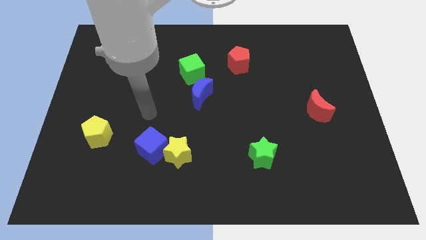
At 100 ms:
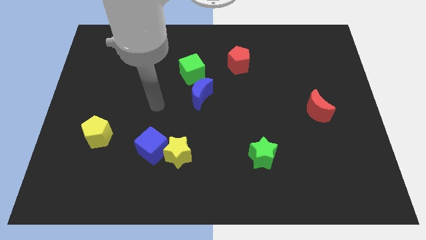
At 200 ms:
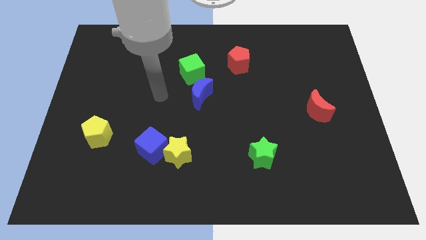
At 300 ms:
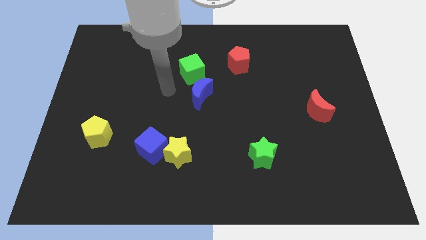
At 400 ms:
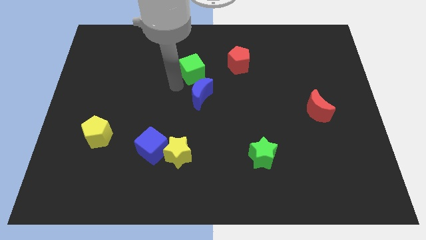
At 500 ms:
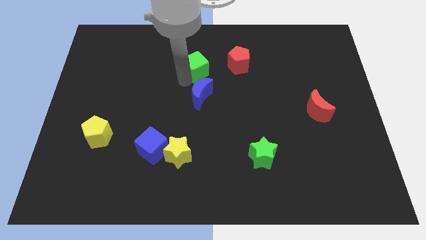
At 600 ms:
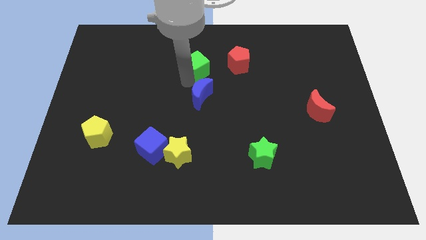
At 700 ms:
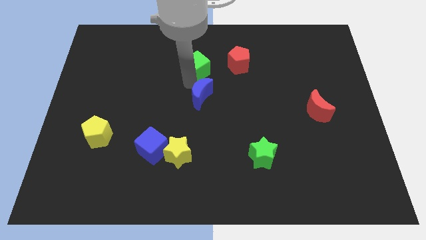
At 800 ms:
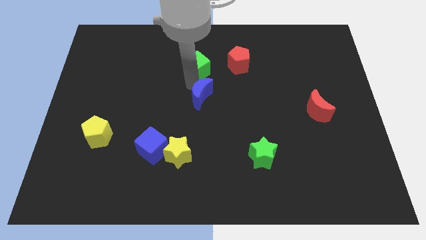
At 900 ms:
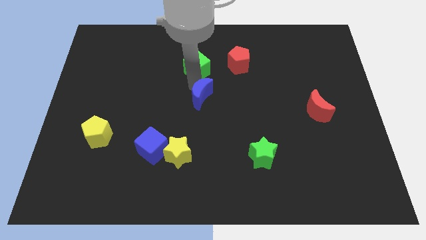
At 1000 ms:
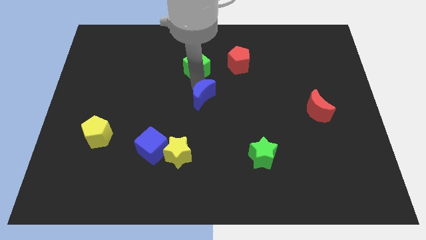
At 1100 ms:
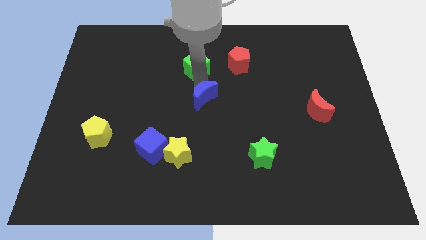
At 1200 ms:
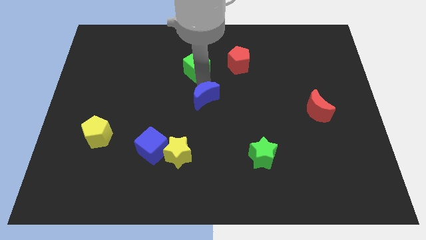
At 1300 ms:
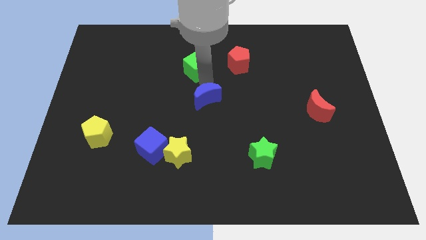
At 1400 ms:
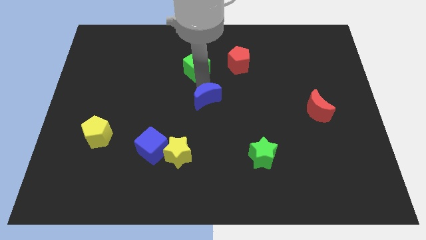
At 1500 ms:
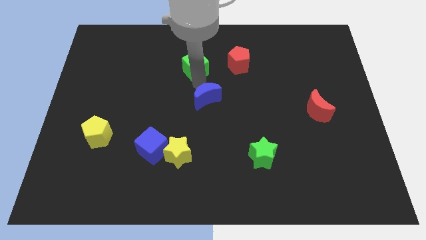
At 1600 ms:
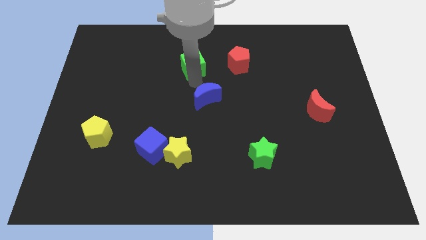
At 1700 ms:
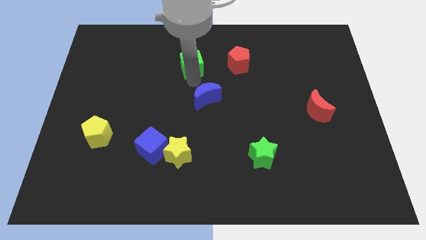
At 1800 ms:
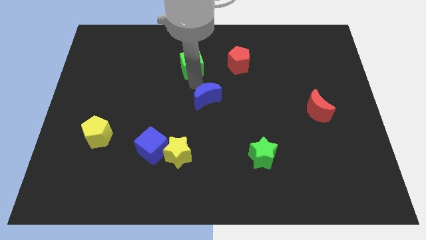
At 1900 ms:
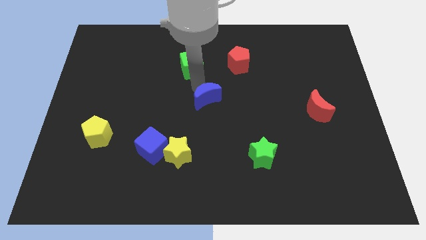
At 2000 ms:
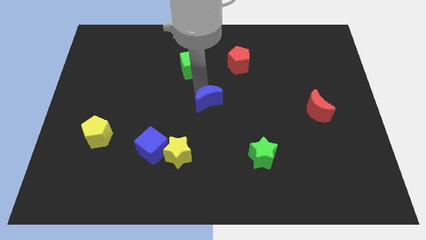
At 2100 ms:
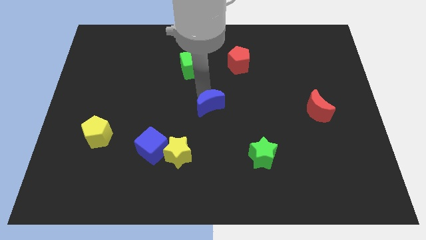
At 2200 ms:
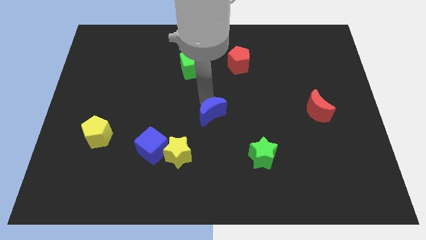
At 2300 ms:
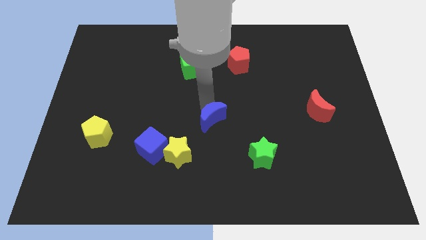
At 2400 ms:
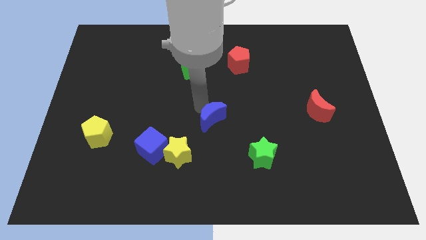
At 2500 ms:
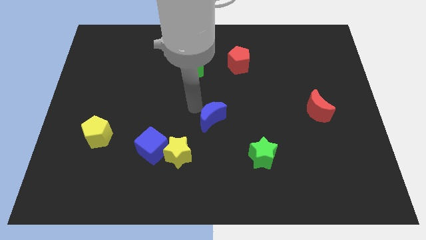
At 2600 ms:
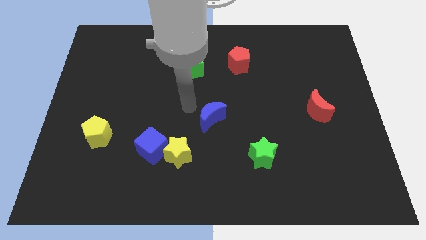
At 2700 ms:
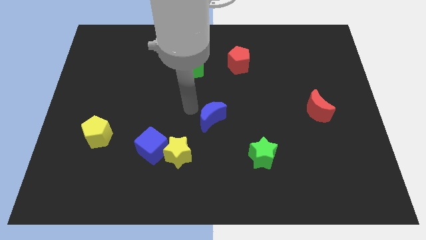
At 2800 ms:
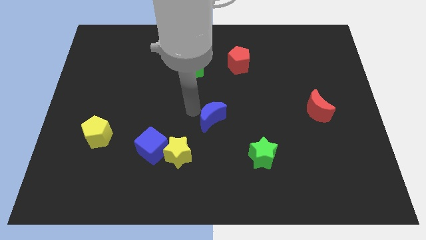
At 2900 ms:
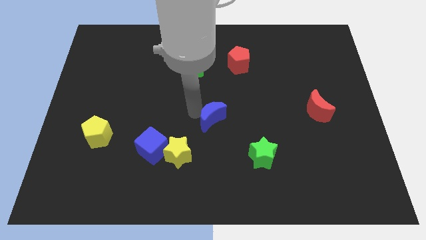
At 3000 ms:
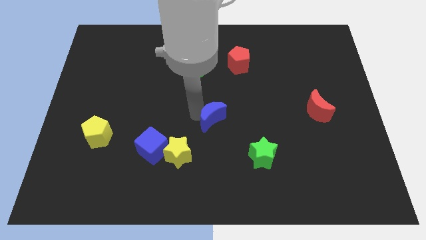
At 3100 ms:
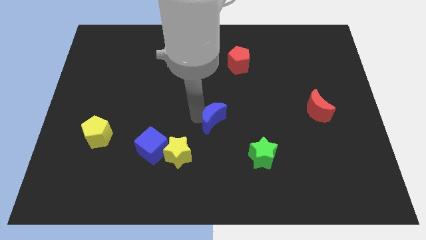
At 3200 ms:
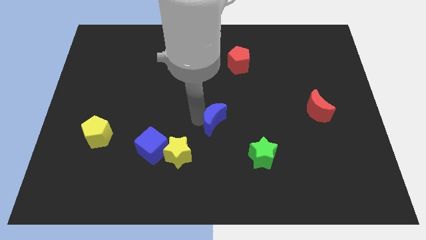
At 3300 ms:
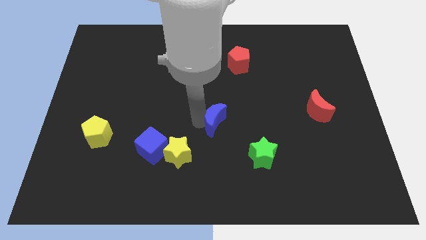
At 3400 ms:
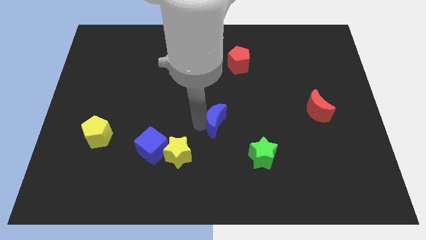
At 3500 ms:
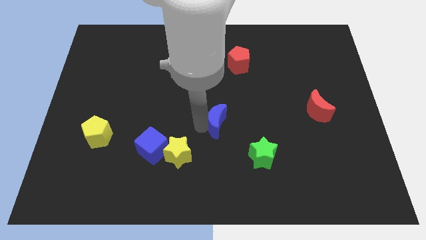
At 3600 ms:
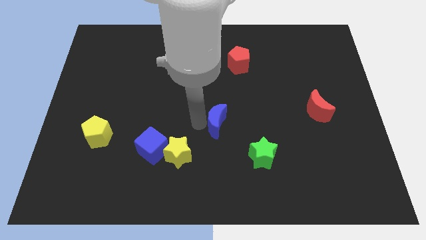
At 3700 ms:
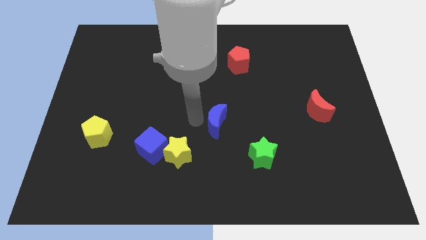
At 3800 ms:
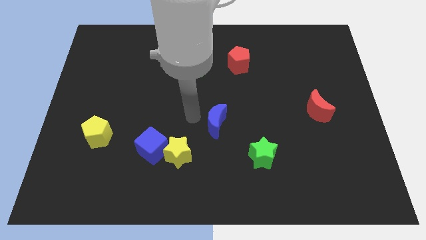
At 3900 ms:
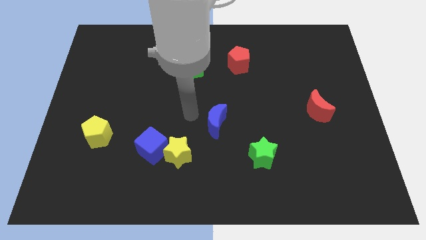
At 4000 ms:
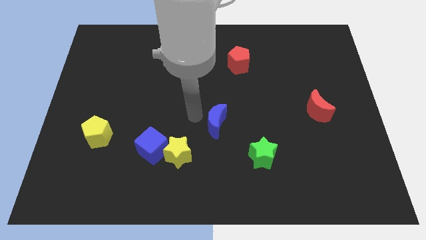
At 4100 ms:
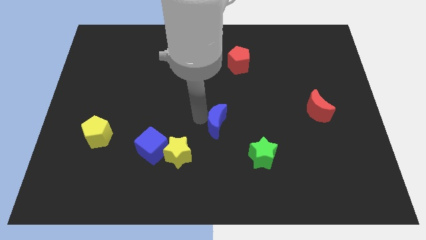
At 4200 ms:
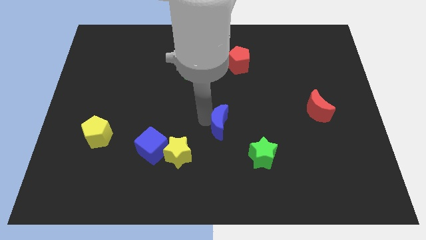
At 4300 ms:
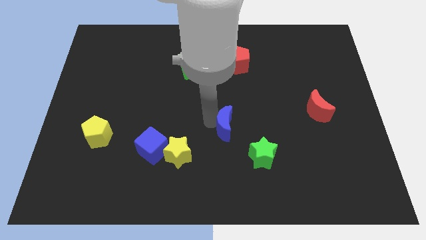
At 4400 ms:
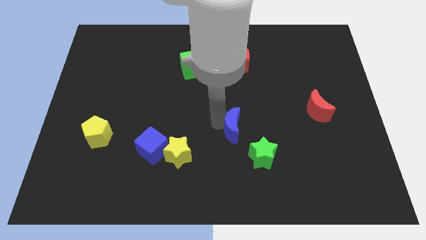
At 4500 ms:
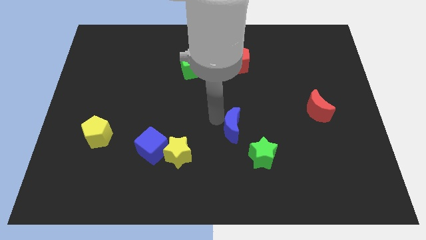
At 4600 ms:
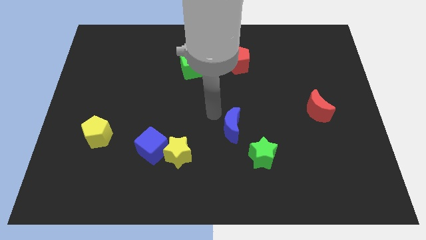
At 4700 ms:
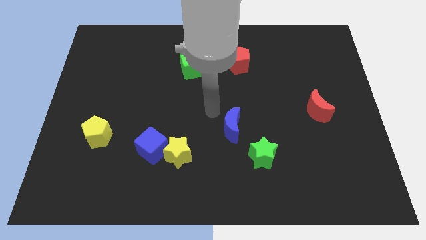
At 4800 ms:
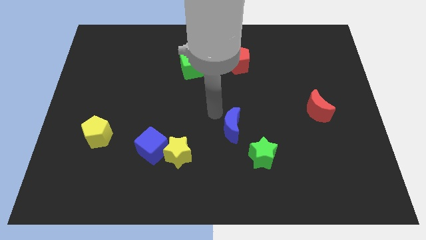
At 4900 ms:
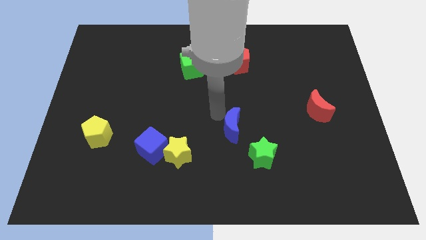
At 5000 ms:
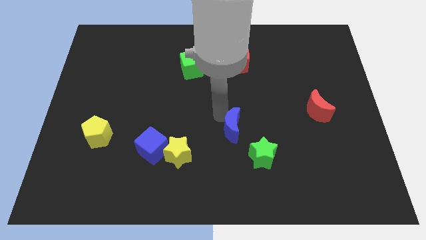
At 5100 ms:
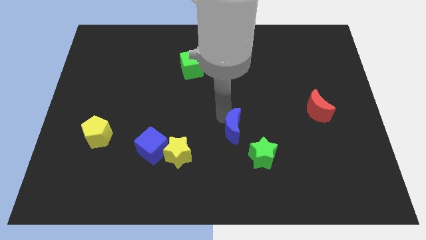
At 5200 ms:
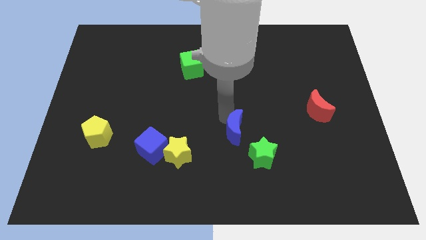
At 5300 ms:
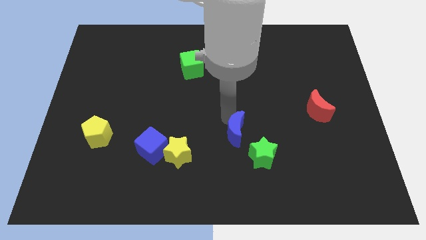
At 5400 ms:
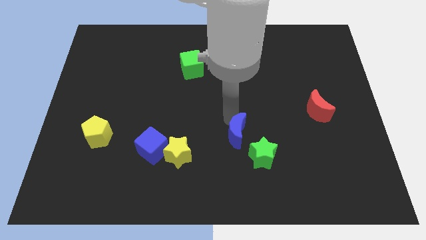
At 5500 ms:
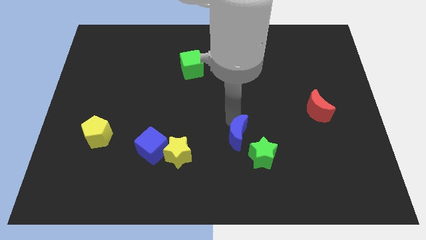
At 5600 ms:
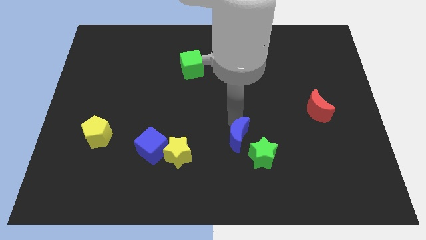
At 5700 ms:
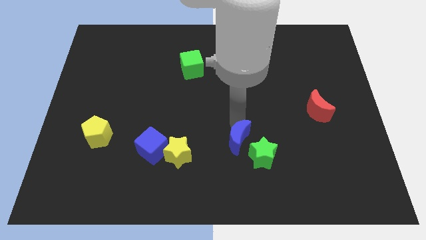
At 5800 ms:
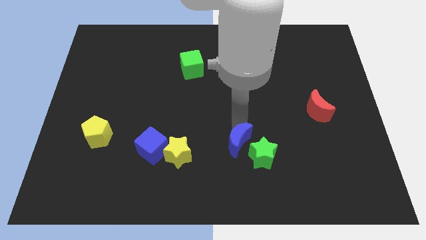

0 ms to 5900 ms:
push the blue moon close to the green star

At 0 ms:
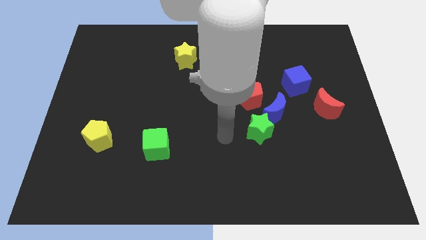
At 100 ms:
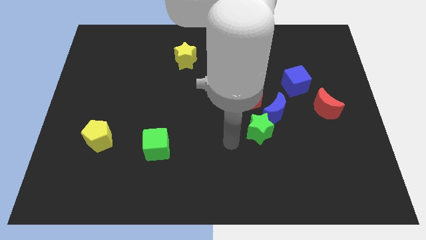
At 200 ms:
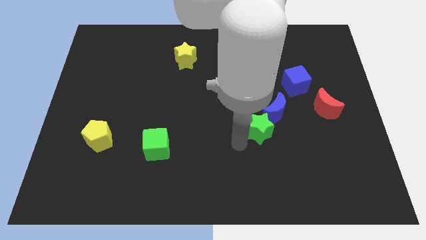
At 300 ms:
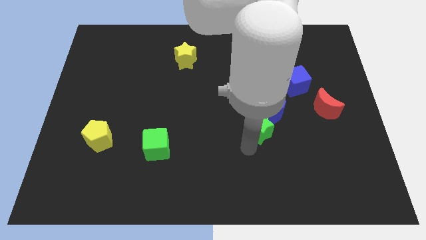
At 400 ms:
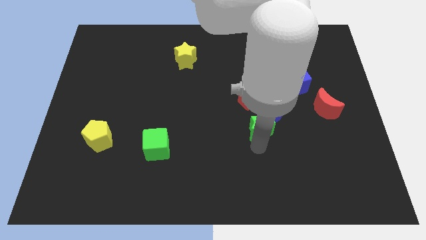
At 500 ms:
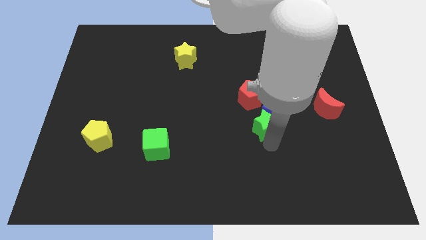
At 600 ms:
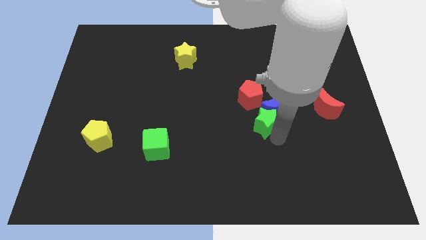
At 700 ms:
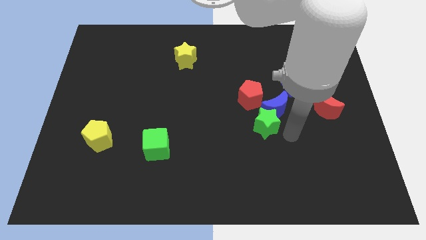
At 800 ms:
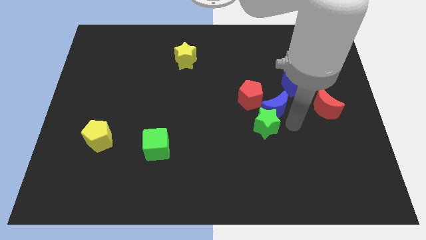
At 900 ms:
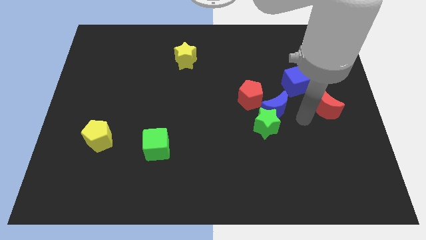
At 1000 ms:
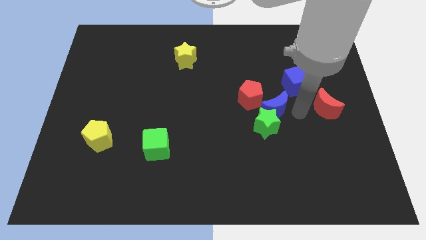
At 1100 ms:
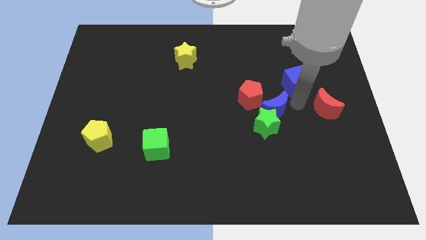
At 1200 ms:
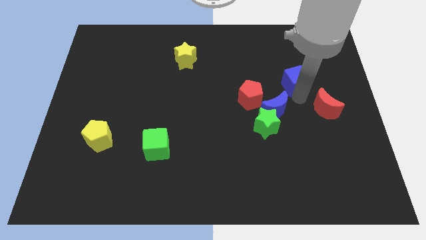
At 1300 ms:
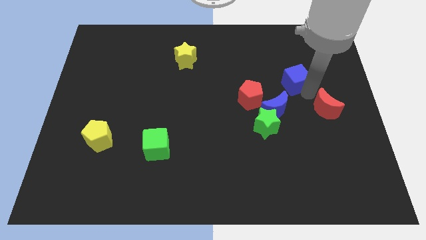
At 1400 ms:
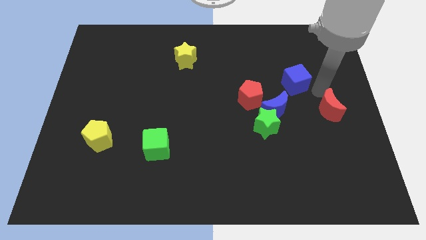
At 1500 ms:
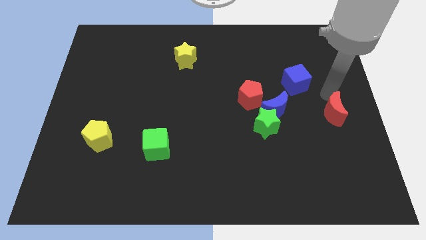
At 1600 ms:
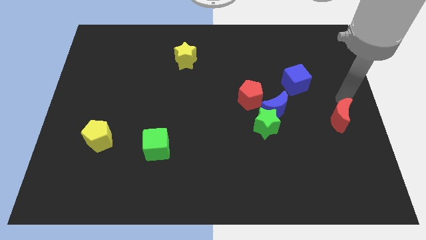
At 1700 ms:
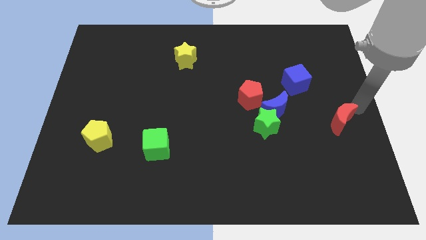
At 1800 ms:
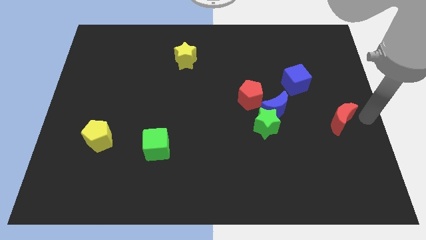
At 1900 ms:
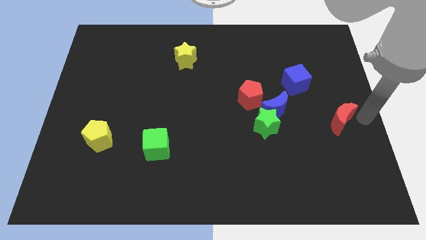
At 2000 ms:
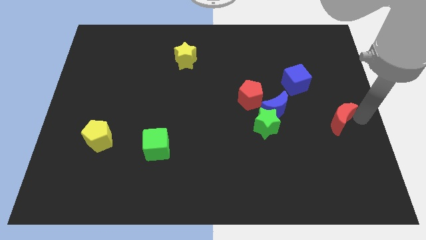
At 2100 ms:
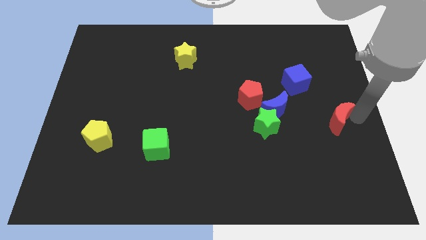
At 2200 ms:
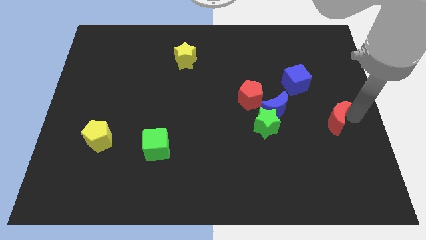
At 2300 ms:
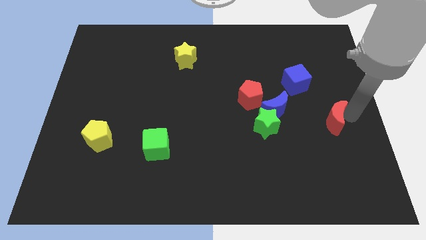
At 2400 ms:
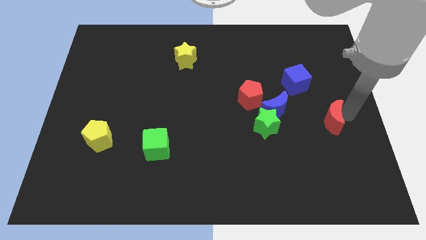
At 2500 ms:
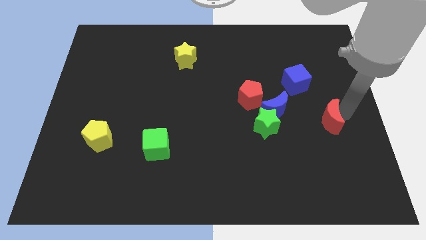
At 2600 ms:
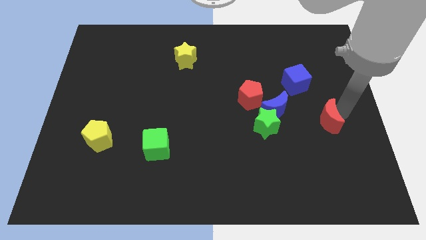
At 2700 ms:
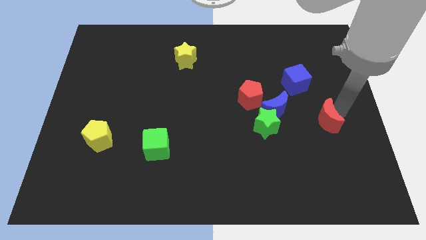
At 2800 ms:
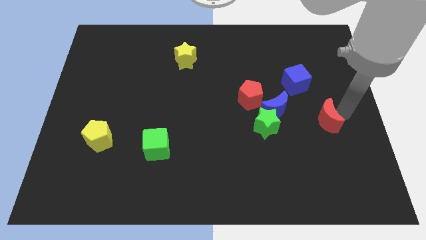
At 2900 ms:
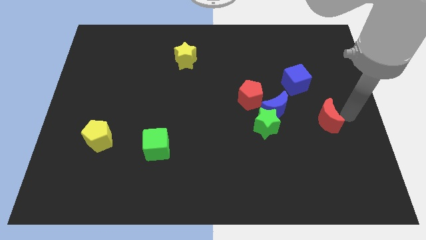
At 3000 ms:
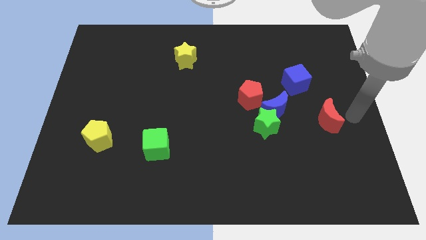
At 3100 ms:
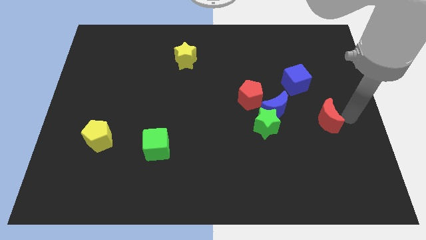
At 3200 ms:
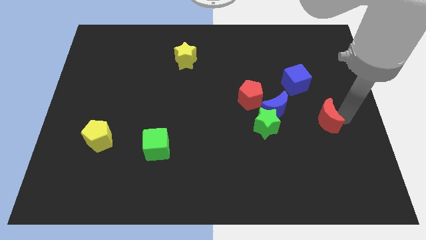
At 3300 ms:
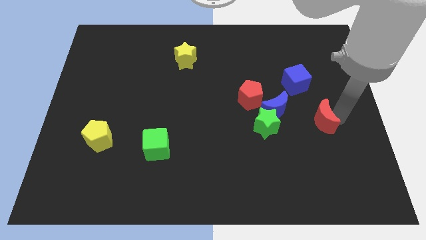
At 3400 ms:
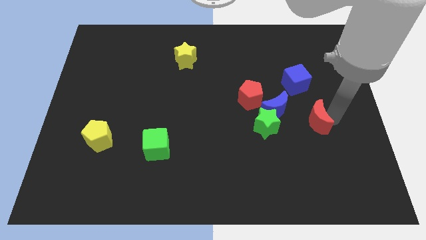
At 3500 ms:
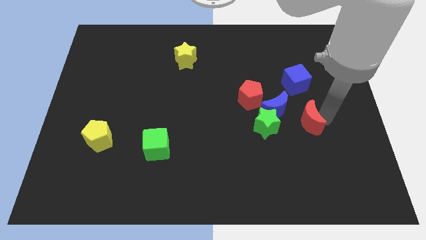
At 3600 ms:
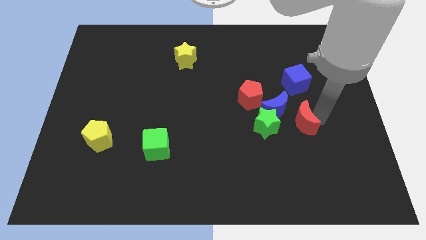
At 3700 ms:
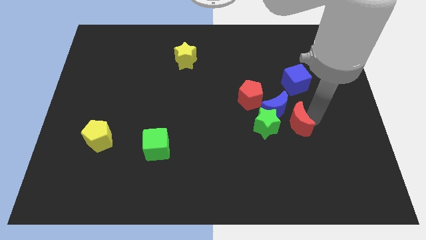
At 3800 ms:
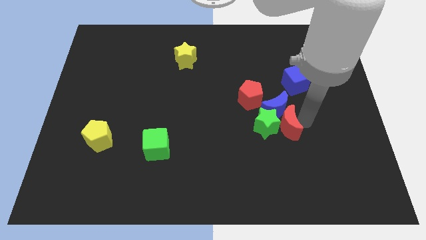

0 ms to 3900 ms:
push the red moon next to the green star
